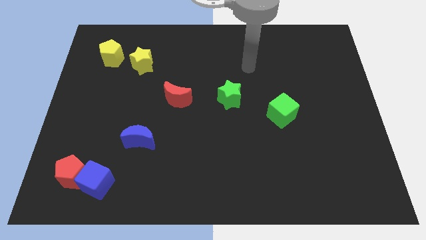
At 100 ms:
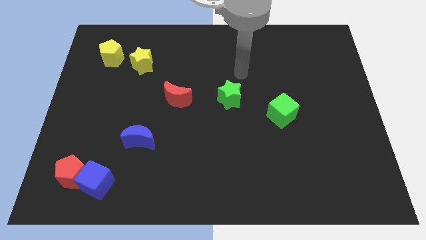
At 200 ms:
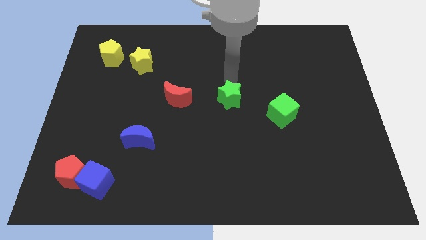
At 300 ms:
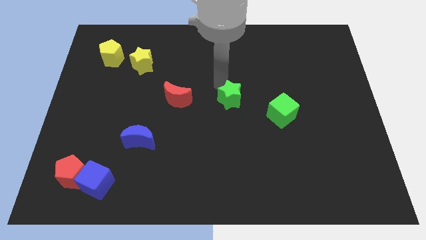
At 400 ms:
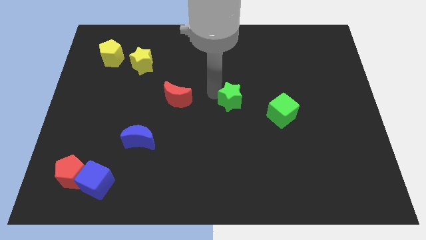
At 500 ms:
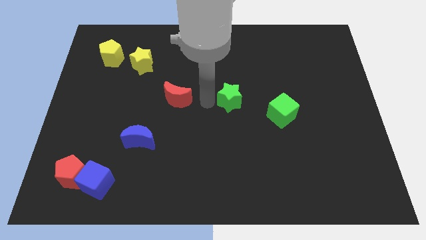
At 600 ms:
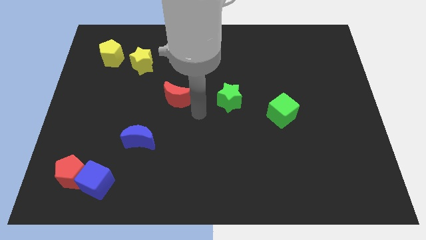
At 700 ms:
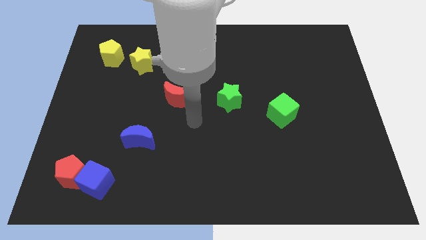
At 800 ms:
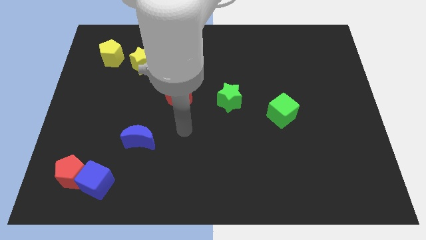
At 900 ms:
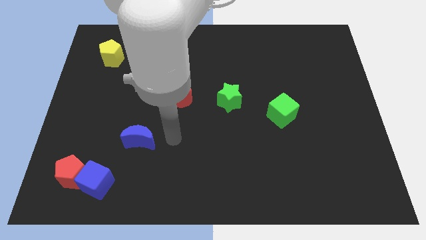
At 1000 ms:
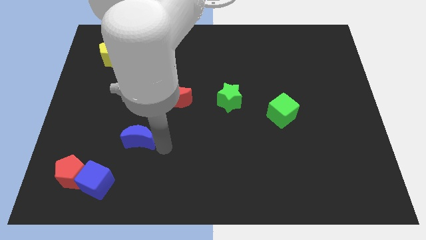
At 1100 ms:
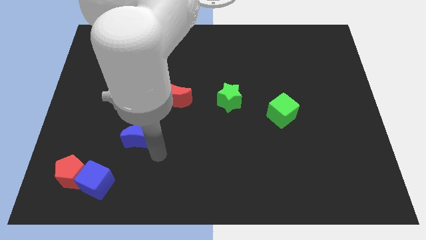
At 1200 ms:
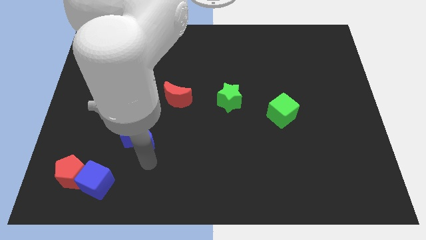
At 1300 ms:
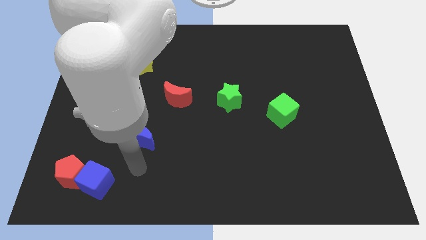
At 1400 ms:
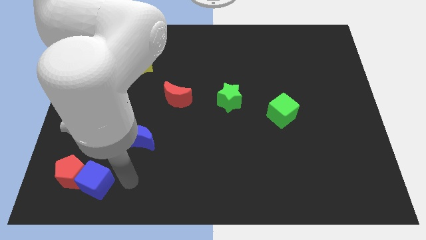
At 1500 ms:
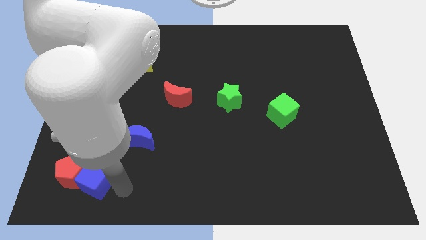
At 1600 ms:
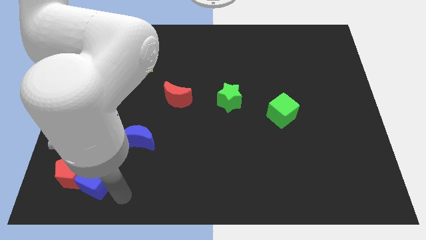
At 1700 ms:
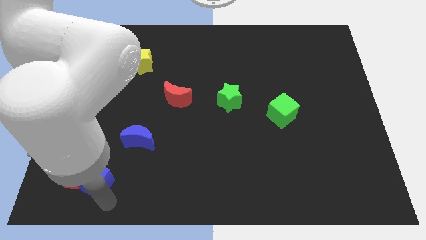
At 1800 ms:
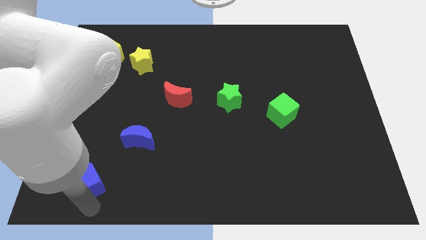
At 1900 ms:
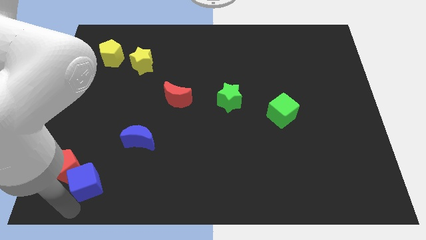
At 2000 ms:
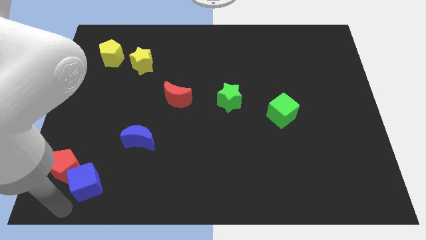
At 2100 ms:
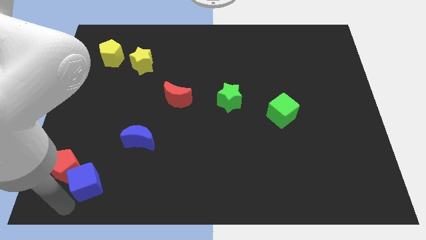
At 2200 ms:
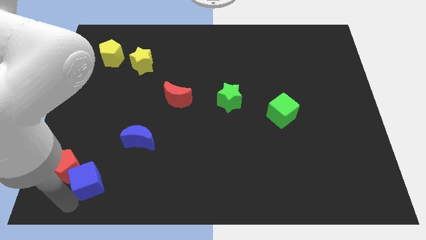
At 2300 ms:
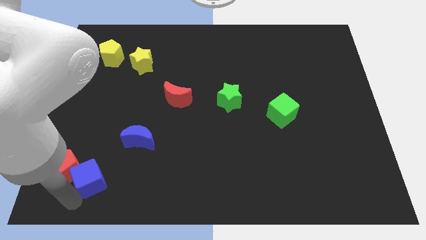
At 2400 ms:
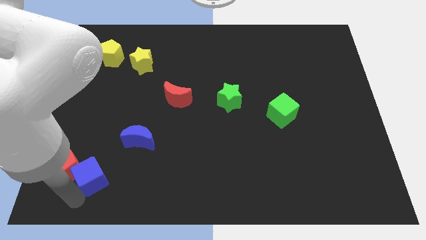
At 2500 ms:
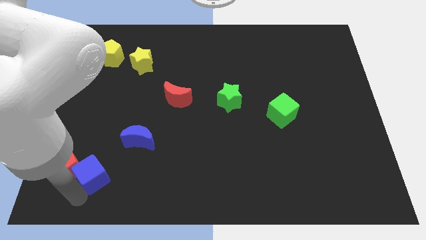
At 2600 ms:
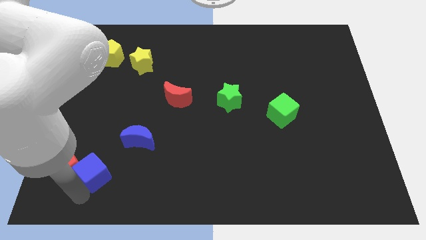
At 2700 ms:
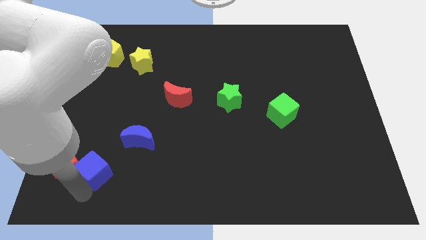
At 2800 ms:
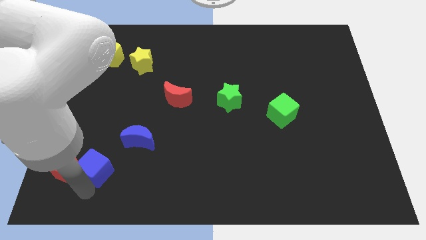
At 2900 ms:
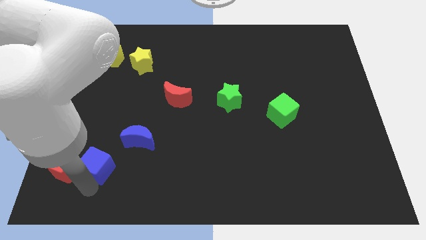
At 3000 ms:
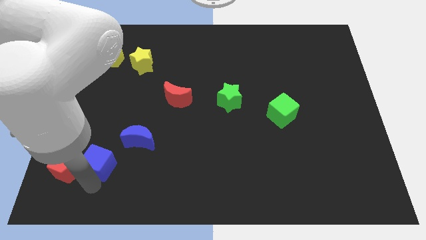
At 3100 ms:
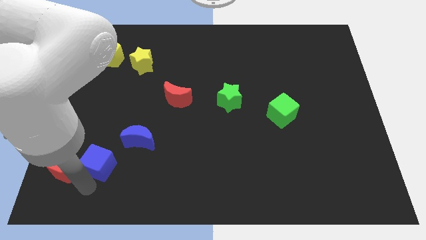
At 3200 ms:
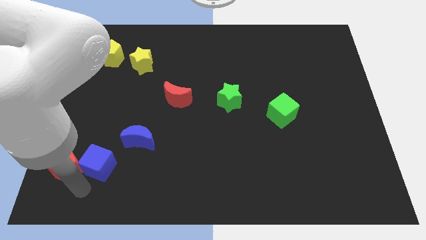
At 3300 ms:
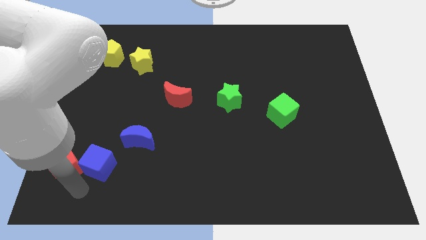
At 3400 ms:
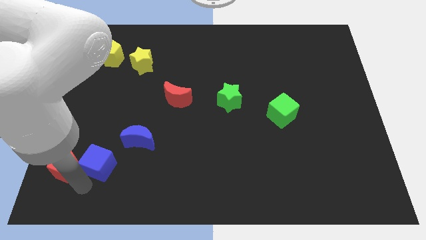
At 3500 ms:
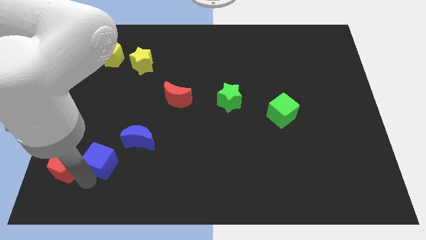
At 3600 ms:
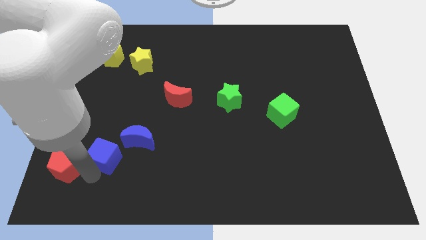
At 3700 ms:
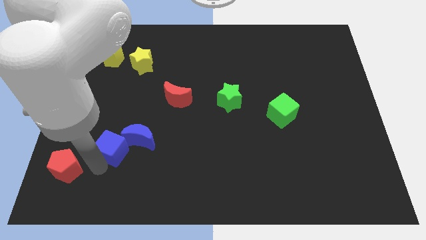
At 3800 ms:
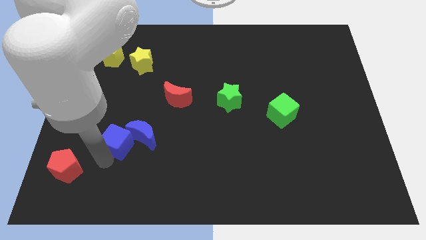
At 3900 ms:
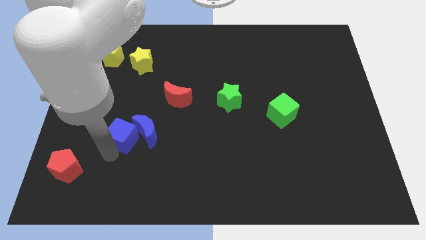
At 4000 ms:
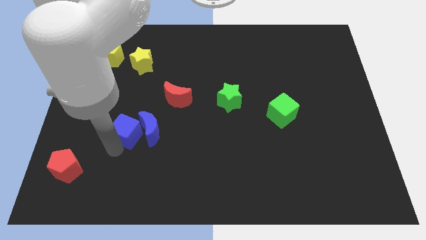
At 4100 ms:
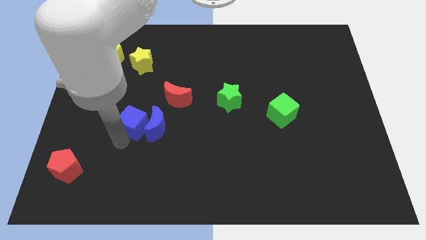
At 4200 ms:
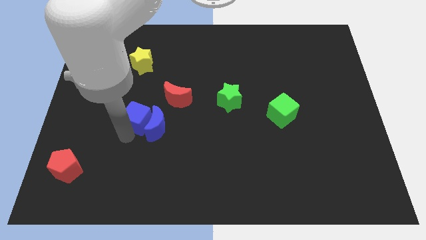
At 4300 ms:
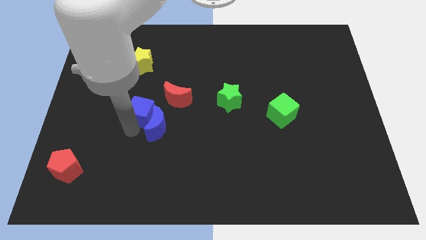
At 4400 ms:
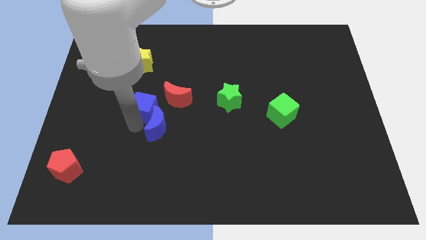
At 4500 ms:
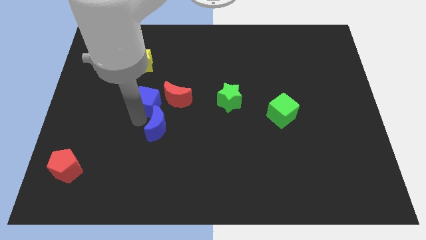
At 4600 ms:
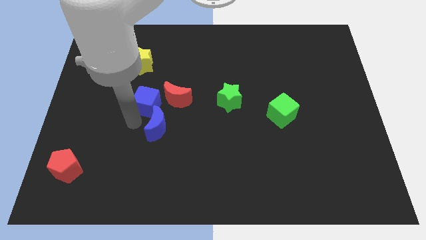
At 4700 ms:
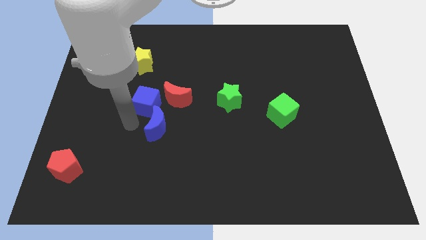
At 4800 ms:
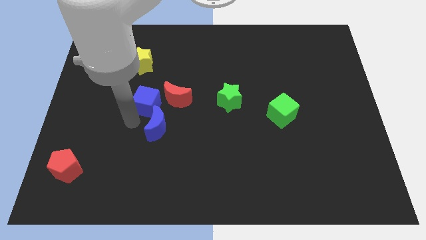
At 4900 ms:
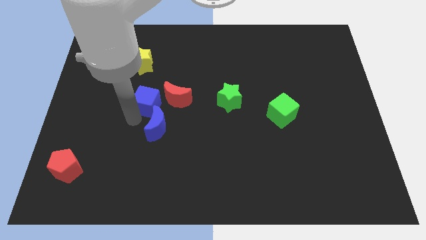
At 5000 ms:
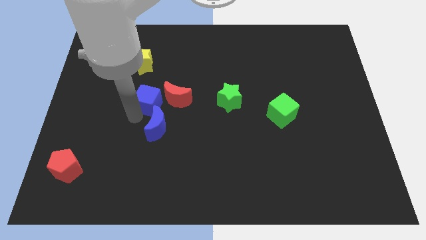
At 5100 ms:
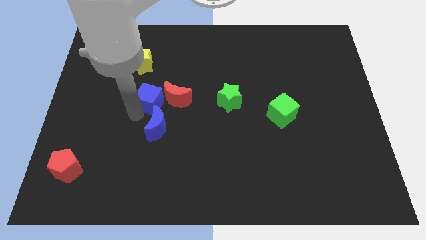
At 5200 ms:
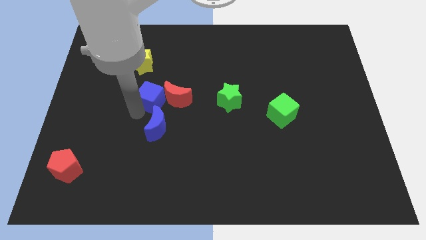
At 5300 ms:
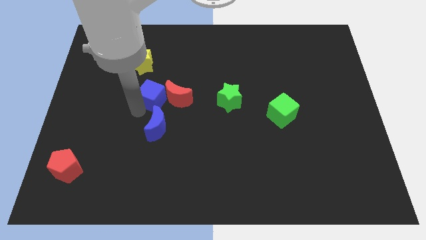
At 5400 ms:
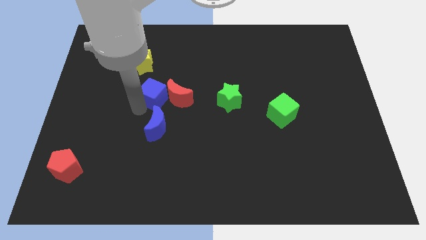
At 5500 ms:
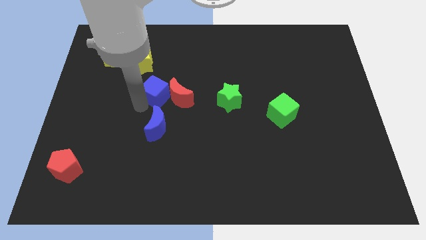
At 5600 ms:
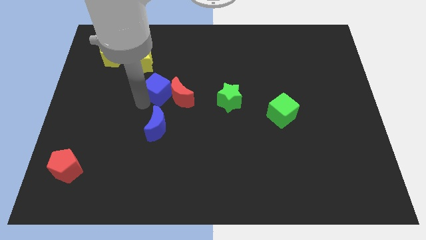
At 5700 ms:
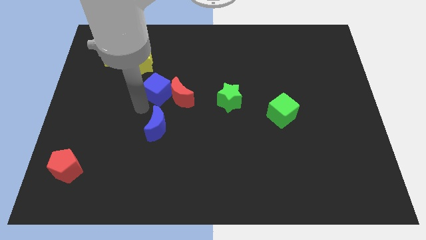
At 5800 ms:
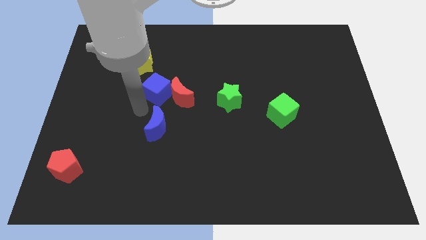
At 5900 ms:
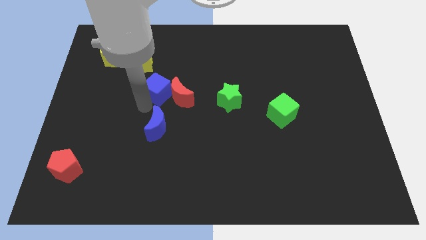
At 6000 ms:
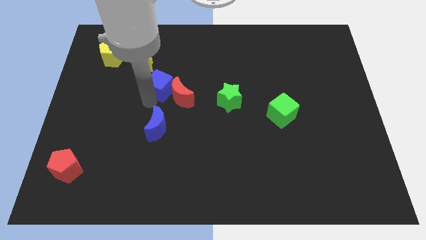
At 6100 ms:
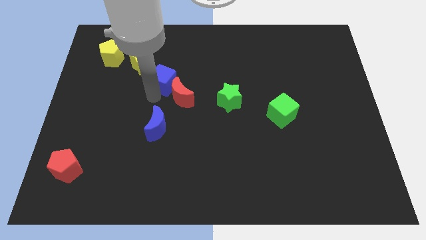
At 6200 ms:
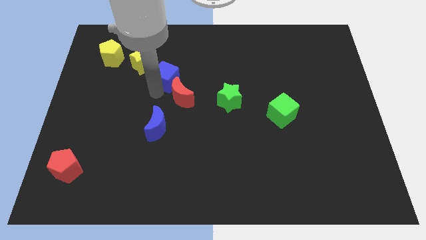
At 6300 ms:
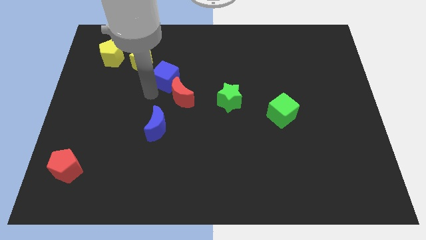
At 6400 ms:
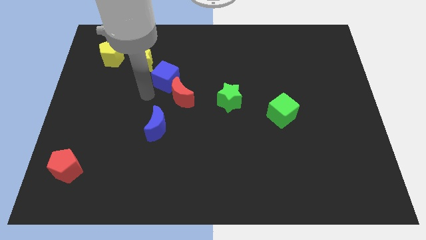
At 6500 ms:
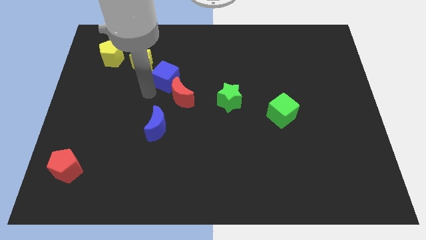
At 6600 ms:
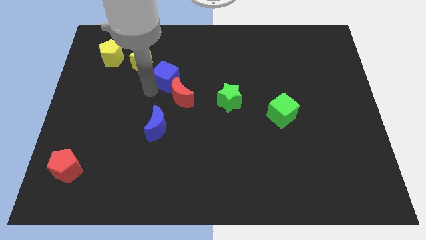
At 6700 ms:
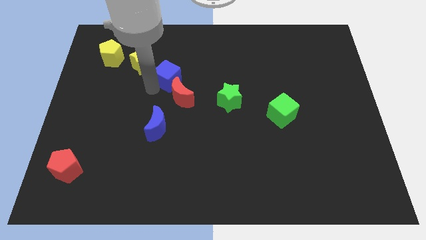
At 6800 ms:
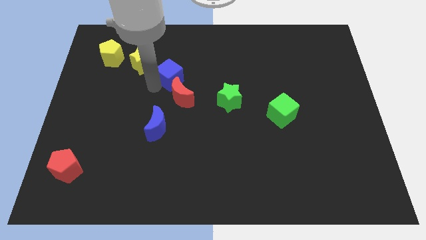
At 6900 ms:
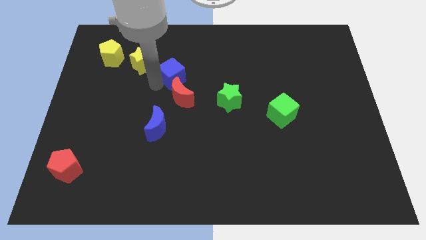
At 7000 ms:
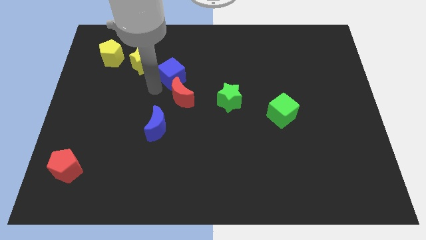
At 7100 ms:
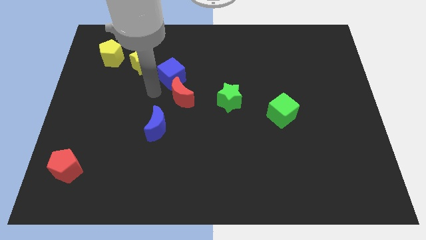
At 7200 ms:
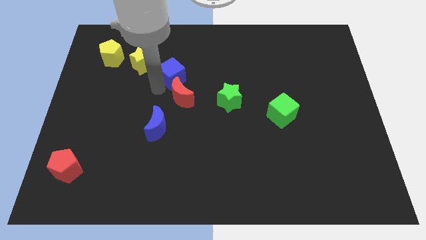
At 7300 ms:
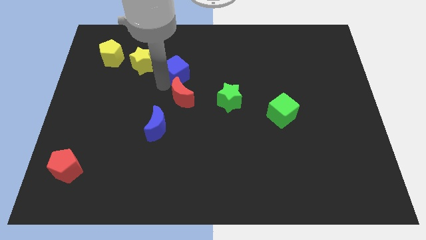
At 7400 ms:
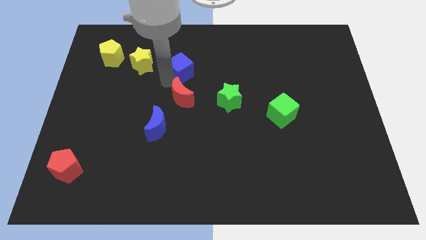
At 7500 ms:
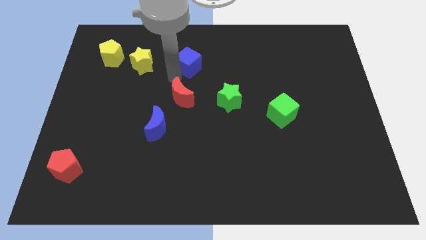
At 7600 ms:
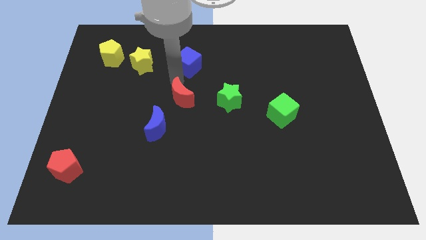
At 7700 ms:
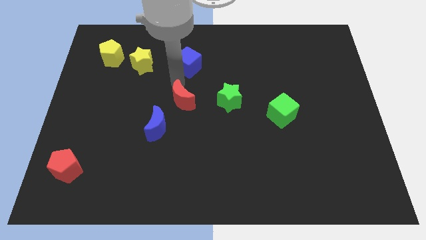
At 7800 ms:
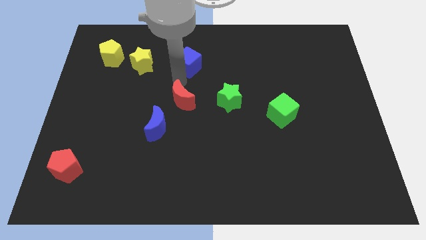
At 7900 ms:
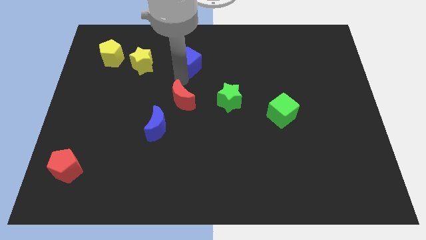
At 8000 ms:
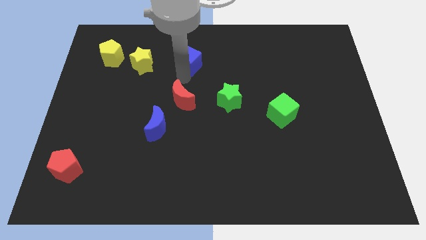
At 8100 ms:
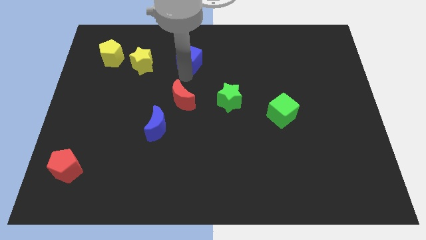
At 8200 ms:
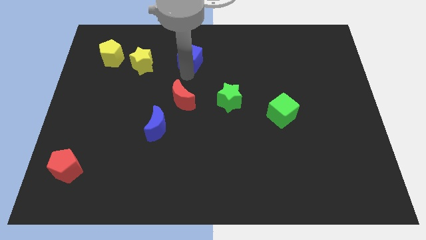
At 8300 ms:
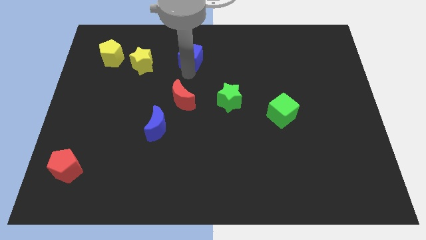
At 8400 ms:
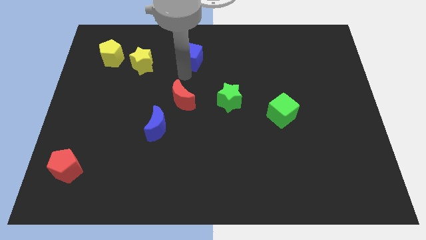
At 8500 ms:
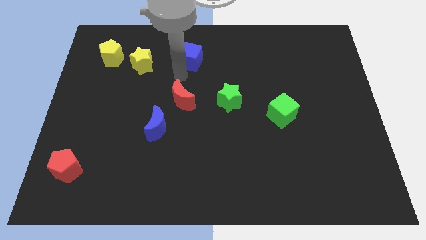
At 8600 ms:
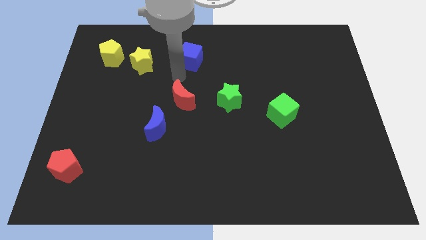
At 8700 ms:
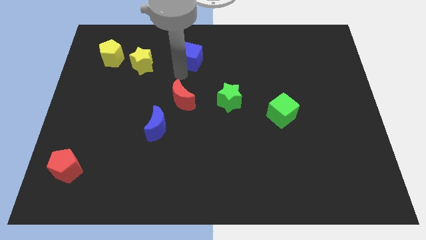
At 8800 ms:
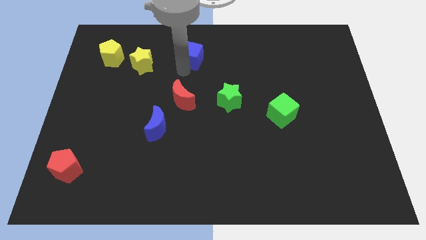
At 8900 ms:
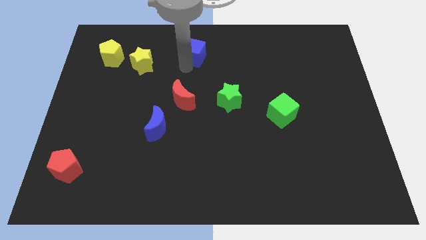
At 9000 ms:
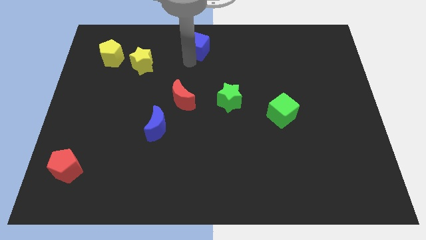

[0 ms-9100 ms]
push the blue cube to the top side
